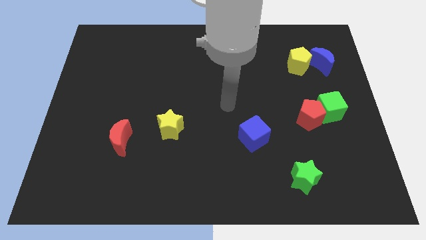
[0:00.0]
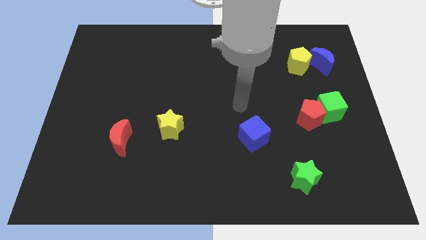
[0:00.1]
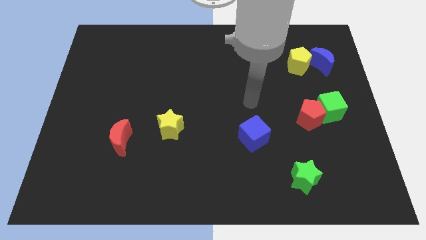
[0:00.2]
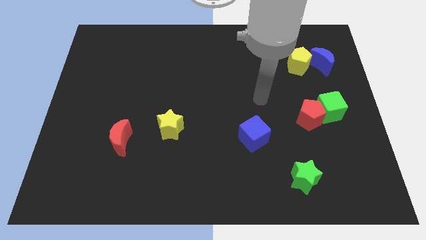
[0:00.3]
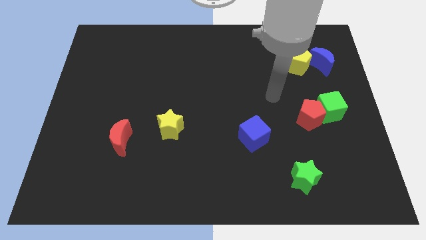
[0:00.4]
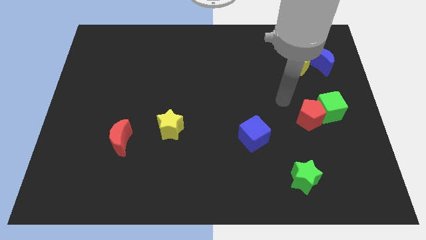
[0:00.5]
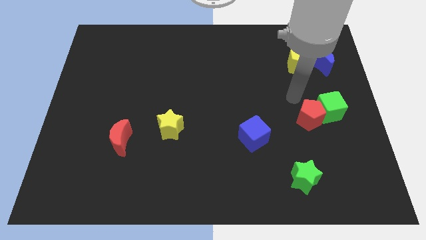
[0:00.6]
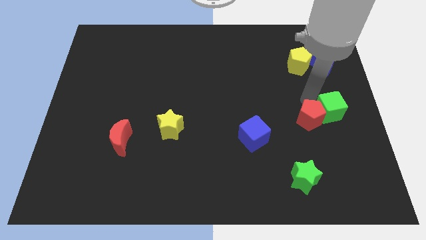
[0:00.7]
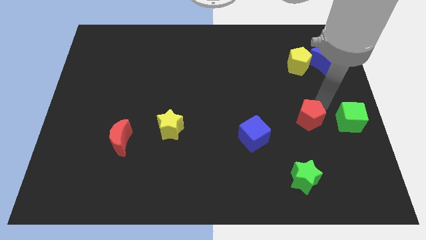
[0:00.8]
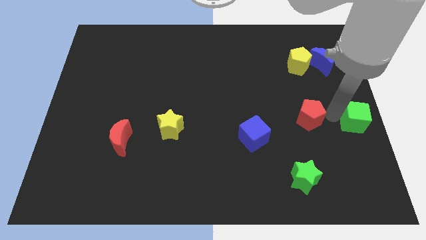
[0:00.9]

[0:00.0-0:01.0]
move the red pentagon away from the green cube

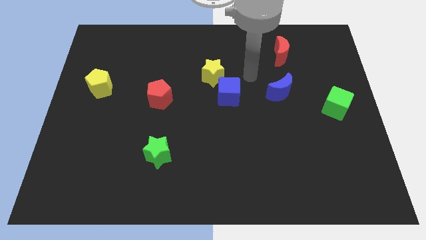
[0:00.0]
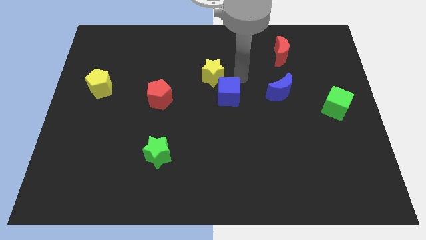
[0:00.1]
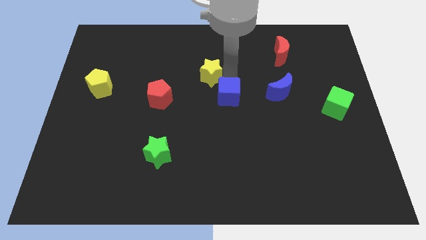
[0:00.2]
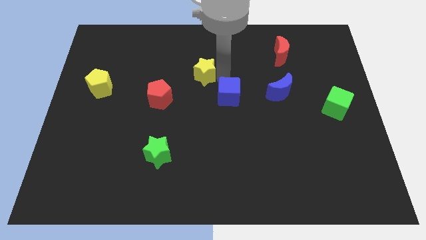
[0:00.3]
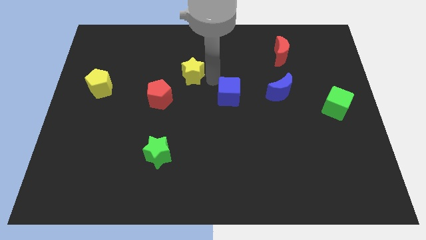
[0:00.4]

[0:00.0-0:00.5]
pull the blue cube apart from the yellow star

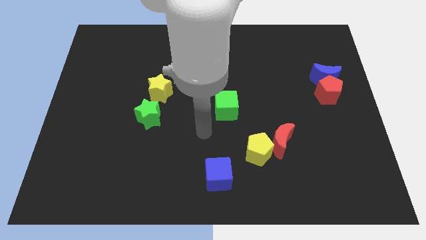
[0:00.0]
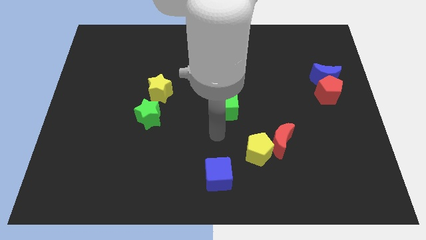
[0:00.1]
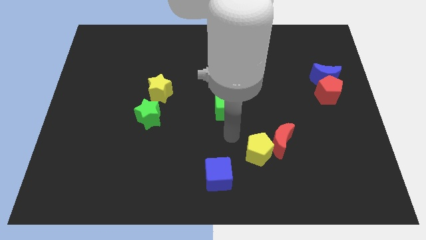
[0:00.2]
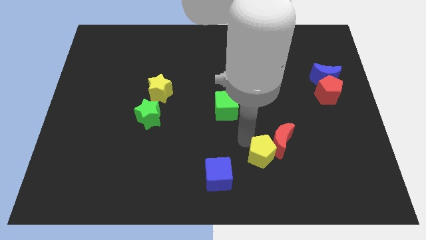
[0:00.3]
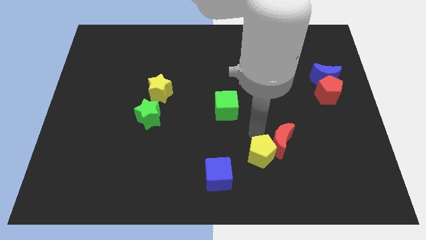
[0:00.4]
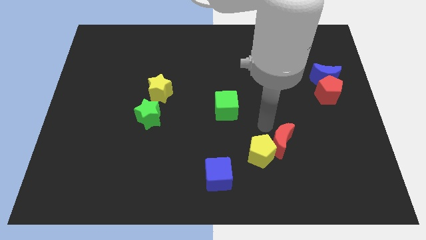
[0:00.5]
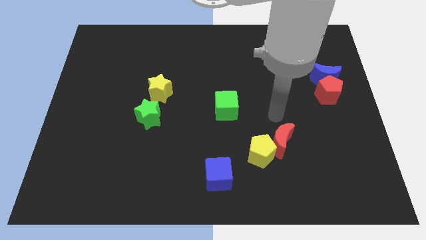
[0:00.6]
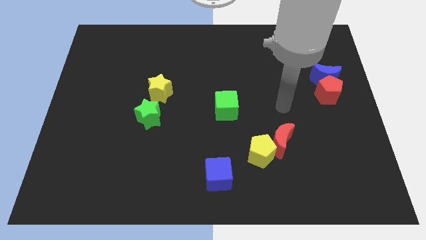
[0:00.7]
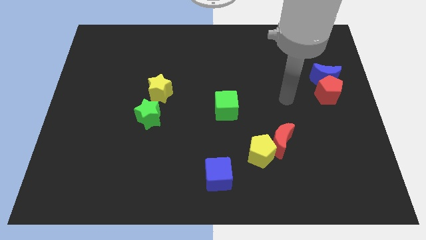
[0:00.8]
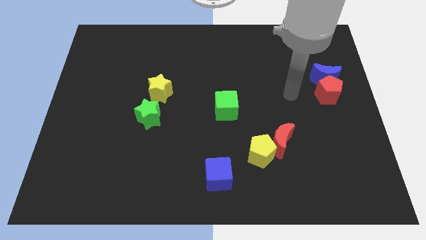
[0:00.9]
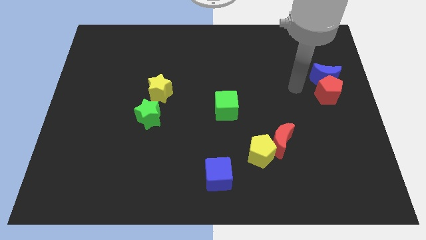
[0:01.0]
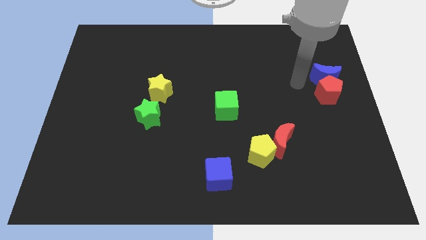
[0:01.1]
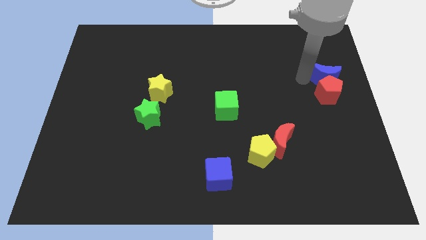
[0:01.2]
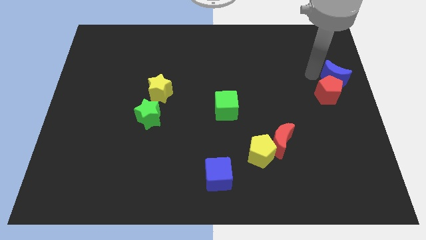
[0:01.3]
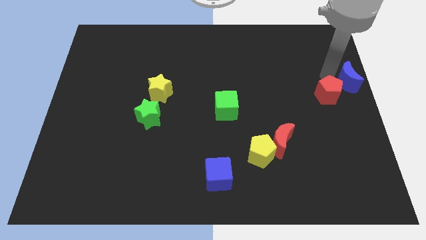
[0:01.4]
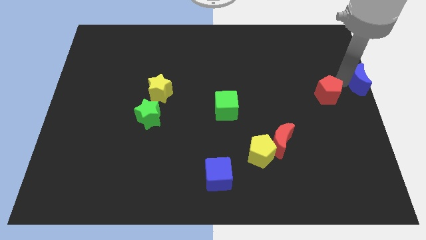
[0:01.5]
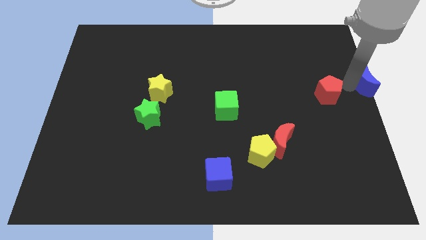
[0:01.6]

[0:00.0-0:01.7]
pull the red pentagon apart from the blue moon

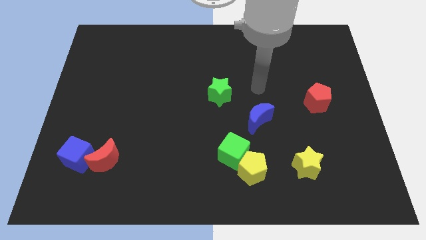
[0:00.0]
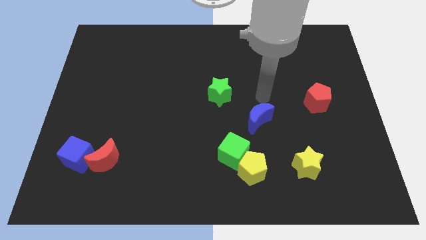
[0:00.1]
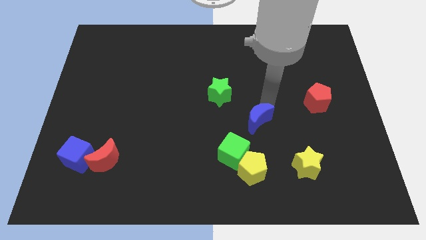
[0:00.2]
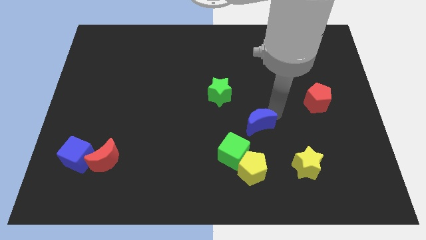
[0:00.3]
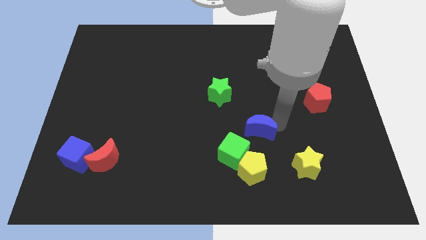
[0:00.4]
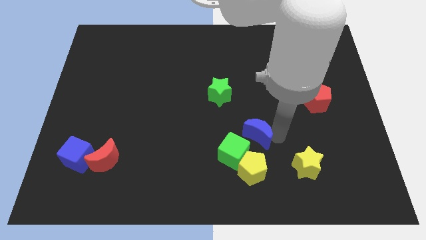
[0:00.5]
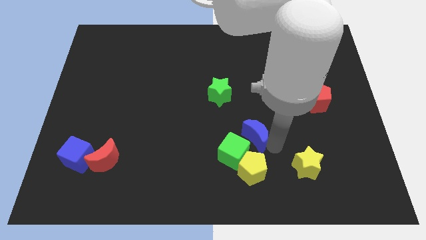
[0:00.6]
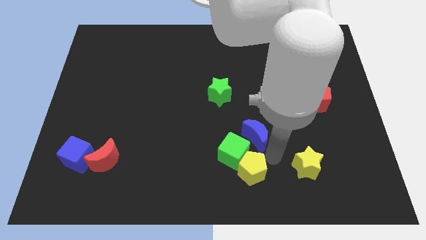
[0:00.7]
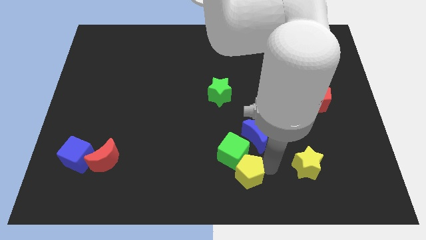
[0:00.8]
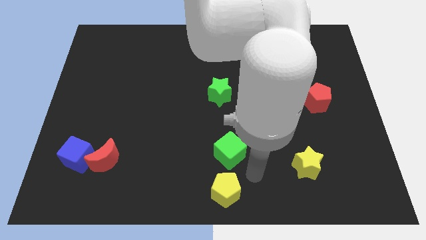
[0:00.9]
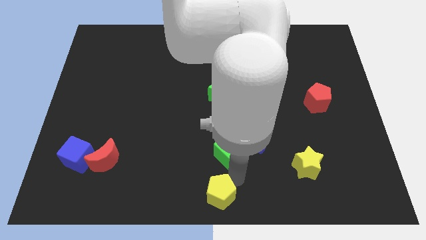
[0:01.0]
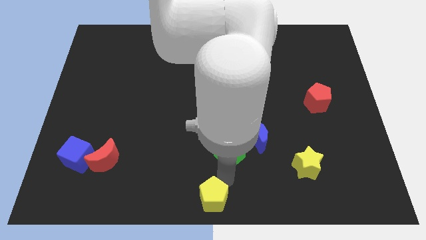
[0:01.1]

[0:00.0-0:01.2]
separate the green cube from the yellow pentagon

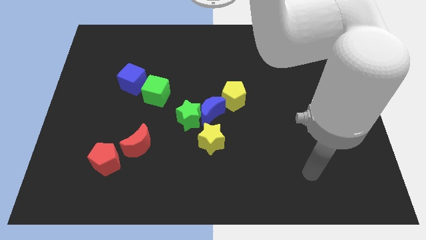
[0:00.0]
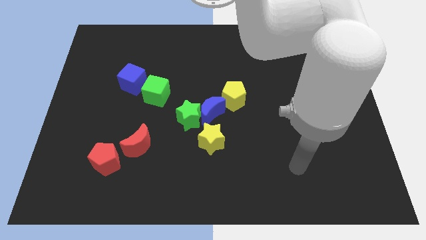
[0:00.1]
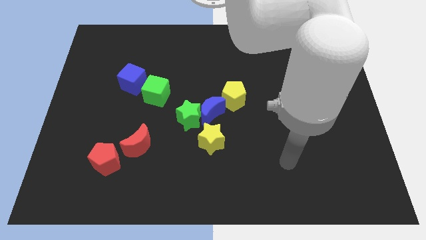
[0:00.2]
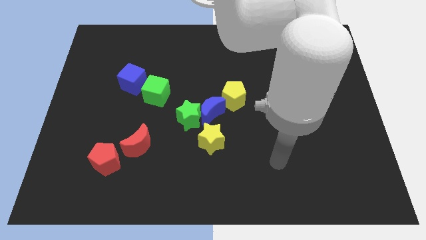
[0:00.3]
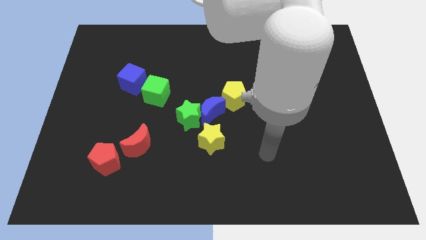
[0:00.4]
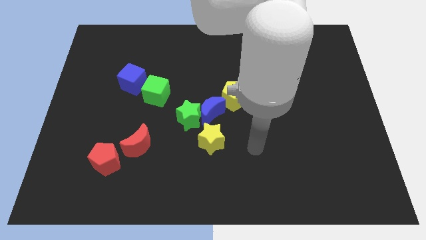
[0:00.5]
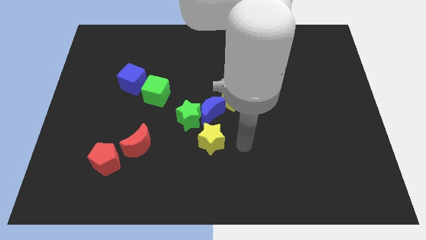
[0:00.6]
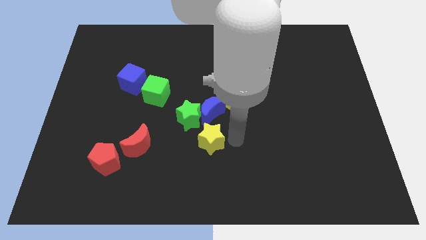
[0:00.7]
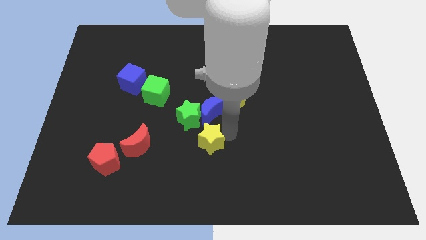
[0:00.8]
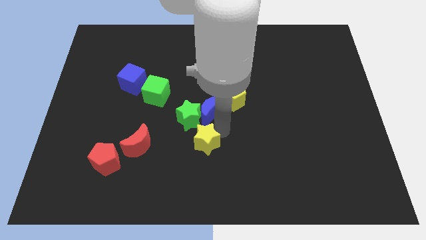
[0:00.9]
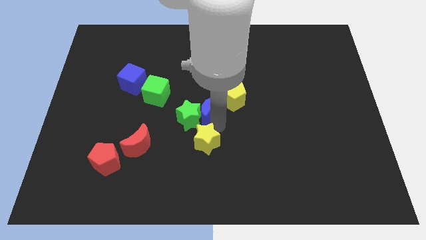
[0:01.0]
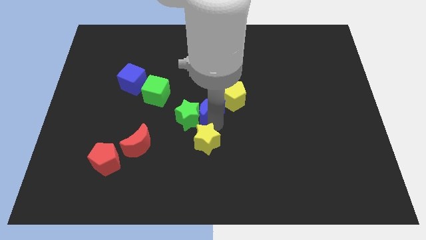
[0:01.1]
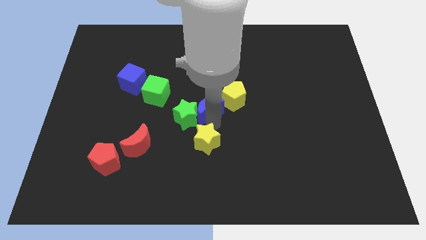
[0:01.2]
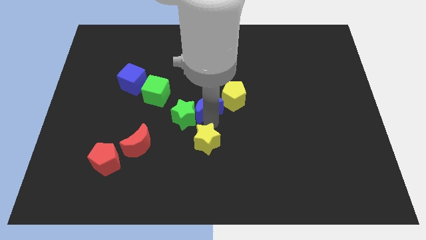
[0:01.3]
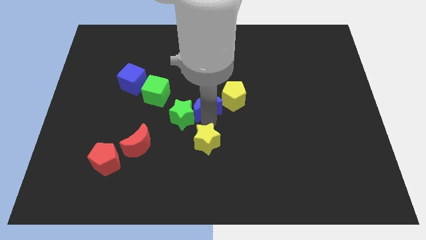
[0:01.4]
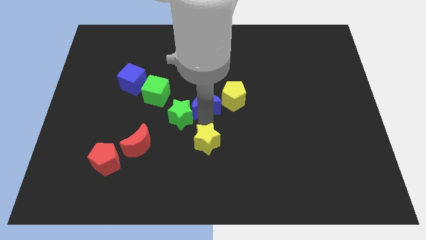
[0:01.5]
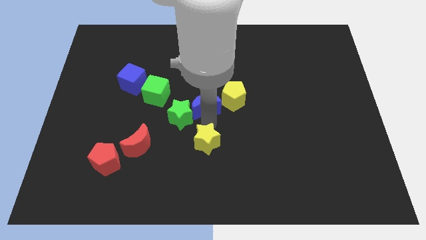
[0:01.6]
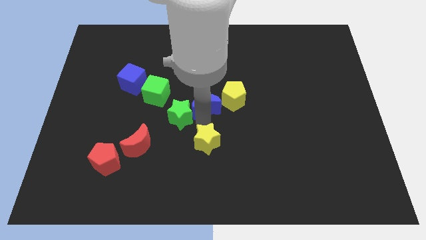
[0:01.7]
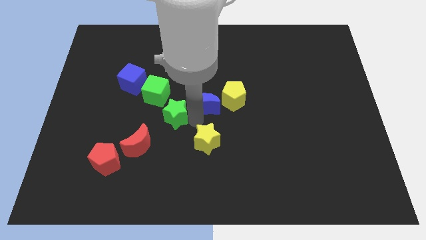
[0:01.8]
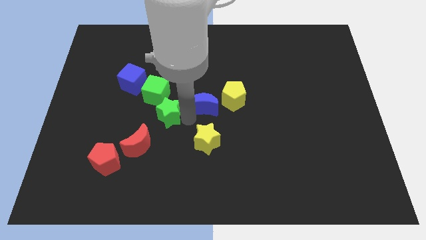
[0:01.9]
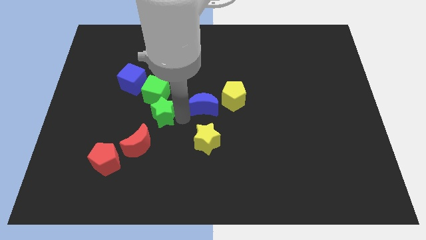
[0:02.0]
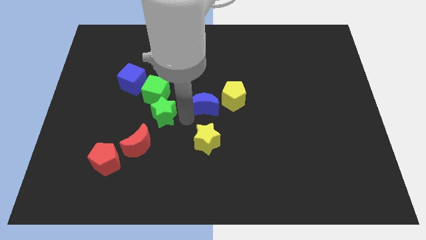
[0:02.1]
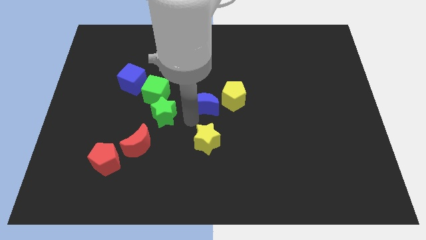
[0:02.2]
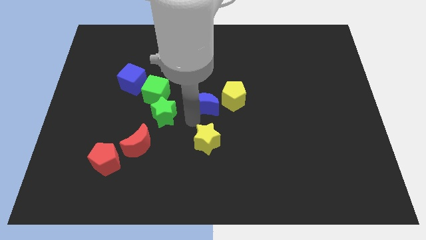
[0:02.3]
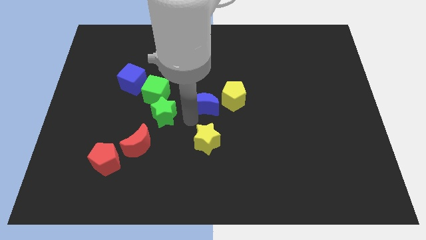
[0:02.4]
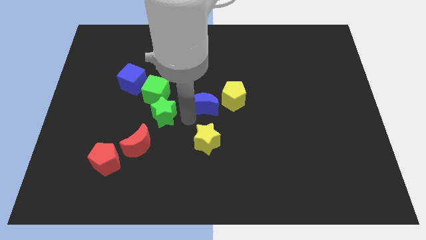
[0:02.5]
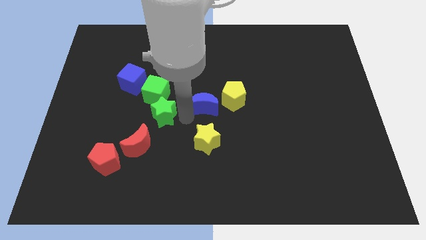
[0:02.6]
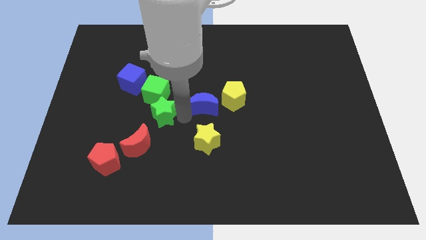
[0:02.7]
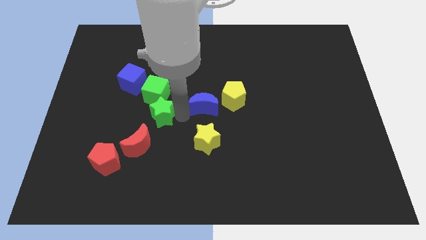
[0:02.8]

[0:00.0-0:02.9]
pull the green star apart from the blue moon and yellow star

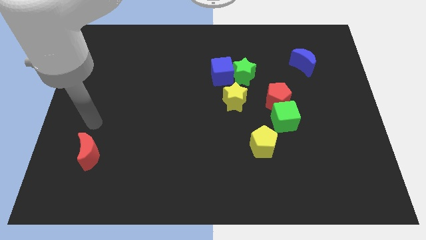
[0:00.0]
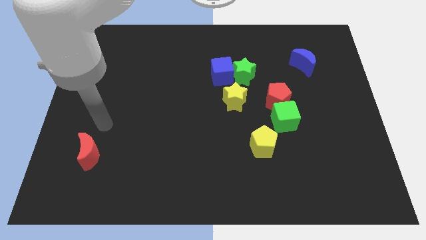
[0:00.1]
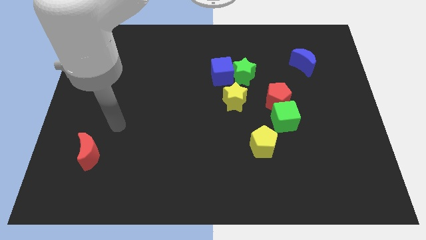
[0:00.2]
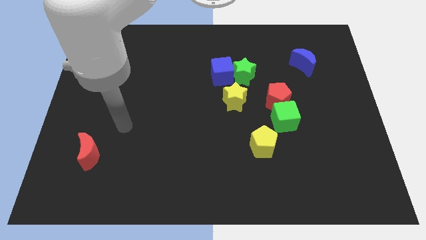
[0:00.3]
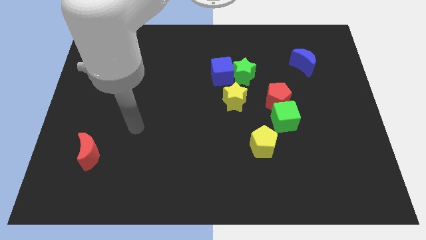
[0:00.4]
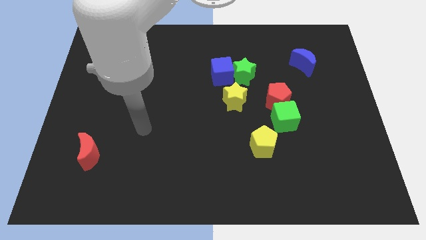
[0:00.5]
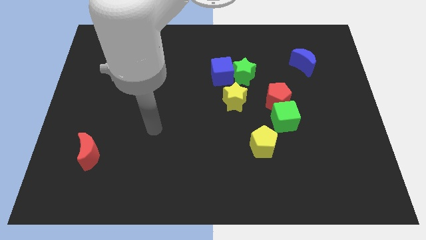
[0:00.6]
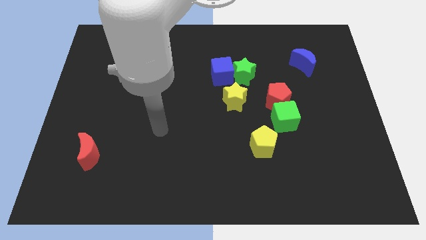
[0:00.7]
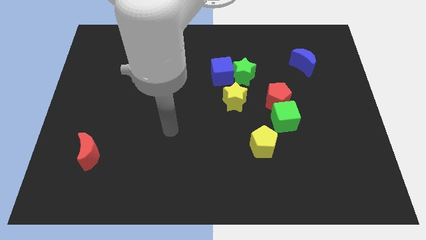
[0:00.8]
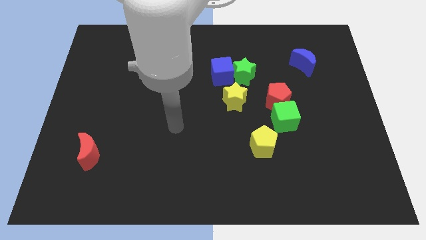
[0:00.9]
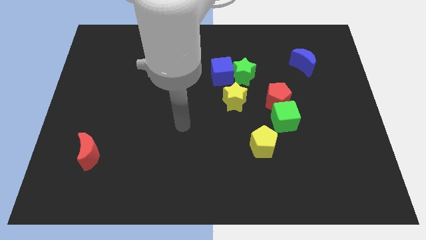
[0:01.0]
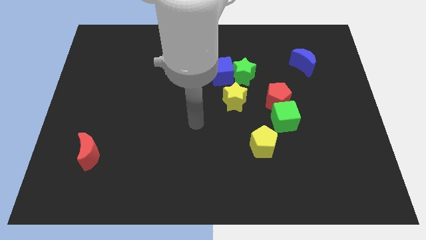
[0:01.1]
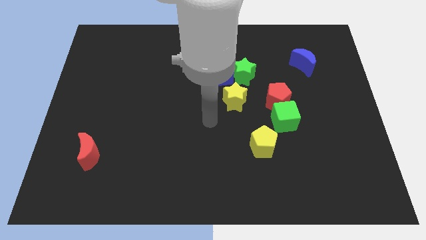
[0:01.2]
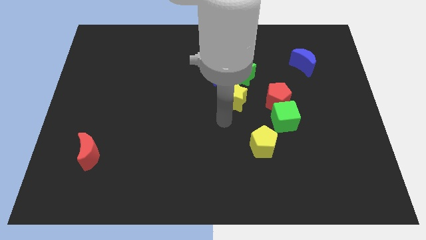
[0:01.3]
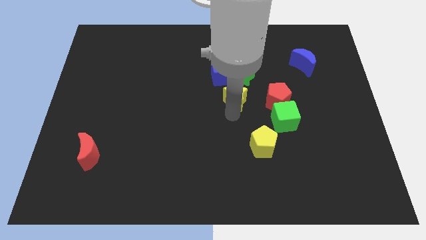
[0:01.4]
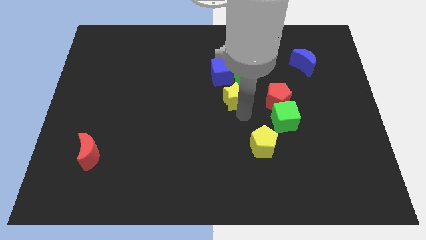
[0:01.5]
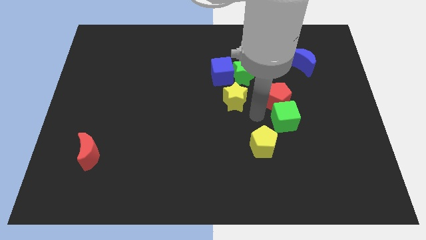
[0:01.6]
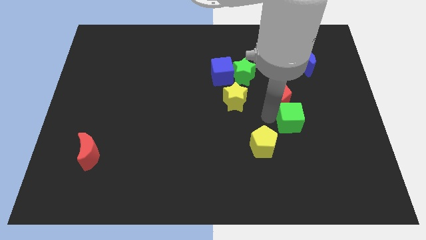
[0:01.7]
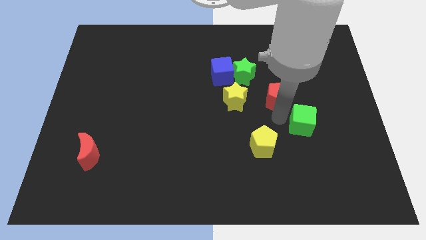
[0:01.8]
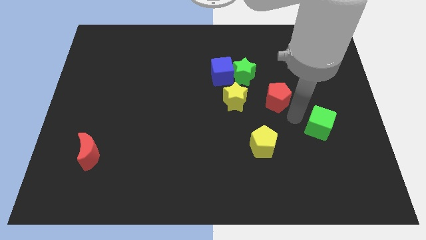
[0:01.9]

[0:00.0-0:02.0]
separate the red pentagon from the green cube

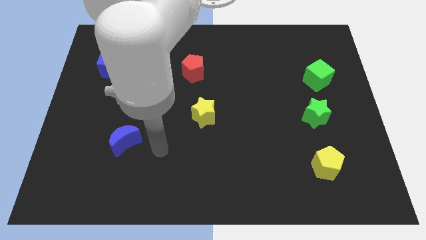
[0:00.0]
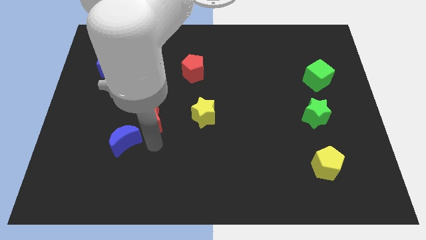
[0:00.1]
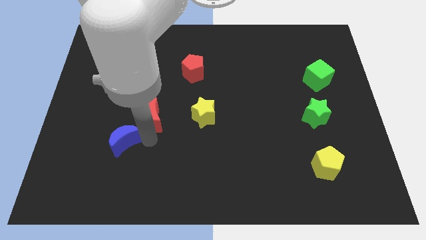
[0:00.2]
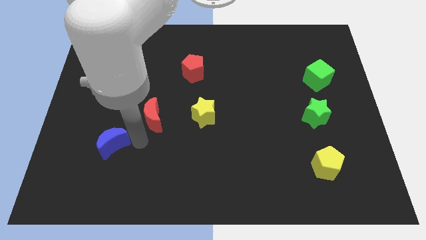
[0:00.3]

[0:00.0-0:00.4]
separate the red moon from the blue moon
